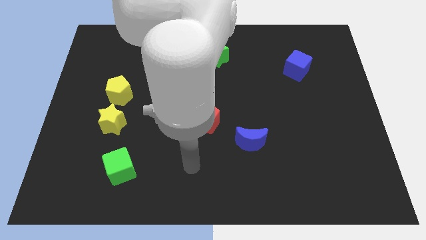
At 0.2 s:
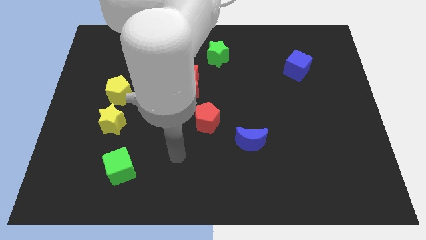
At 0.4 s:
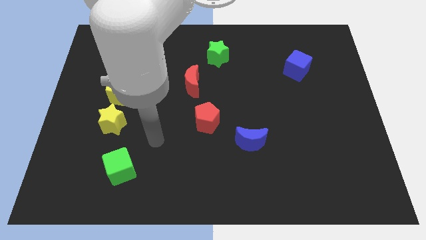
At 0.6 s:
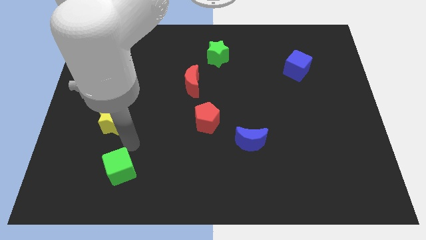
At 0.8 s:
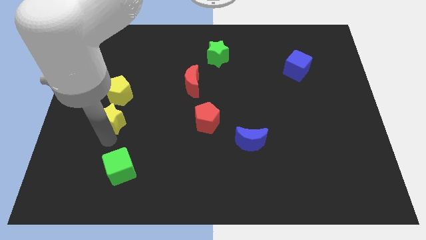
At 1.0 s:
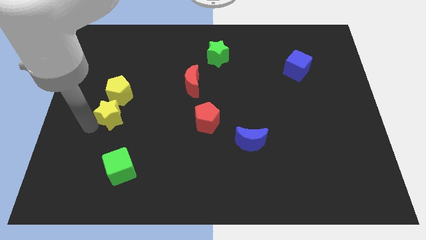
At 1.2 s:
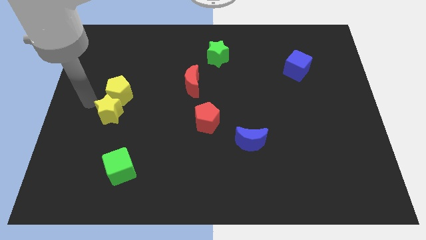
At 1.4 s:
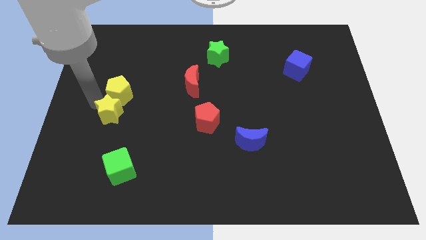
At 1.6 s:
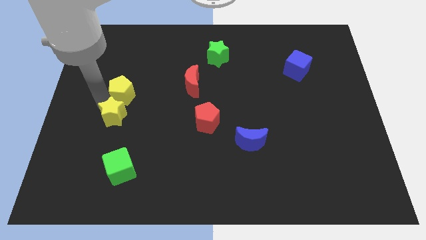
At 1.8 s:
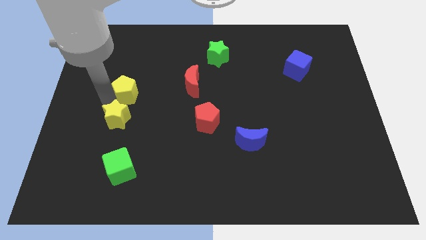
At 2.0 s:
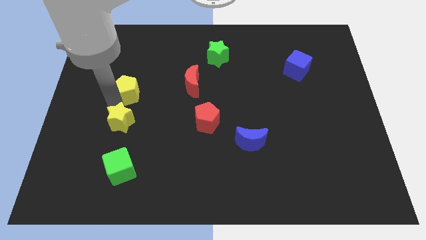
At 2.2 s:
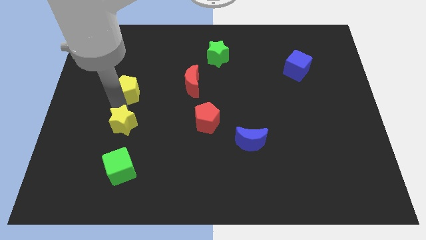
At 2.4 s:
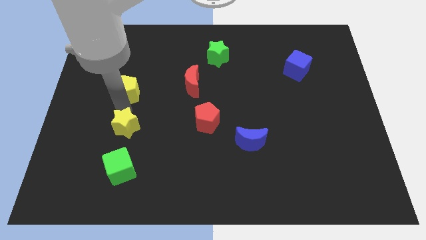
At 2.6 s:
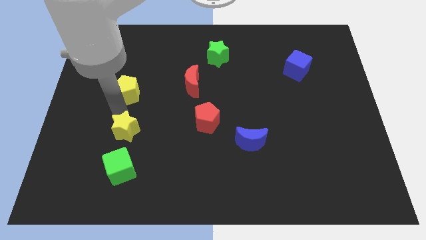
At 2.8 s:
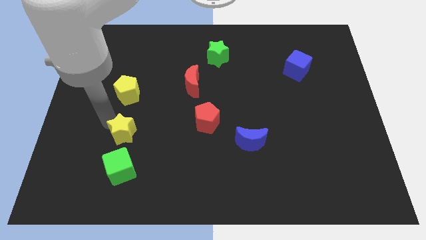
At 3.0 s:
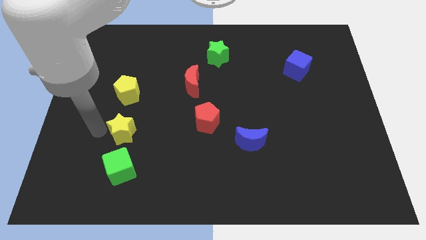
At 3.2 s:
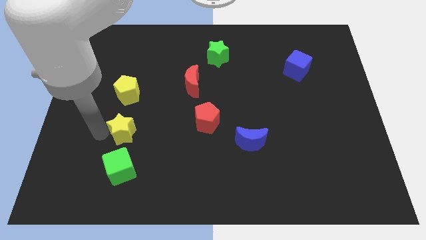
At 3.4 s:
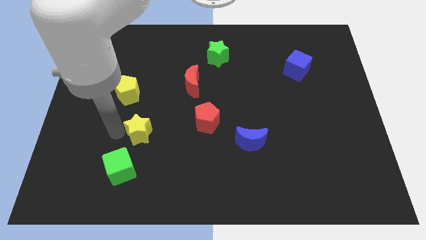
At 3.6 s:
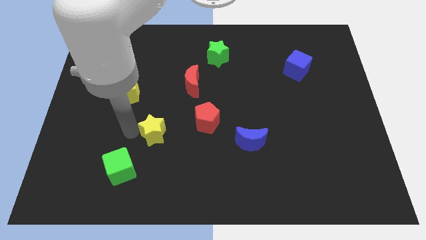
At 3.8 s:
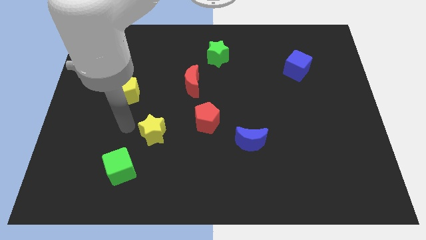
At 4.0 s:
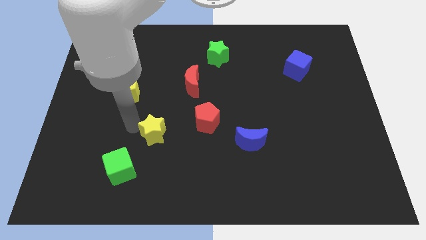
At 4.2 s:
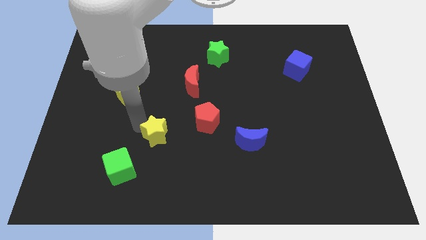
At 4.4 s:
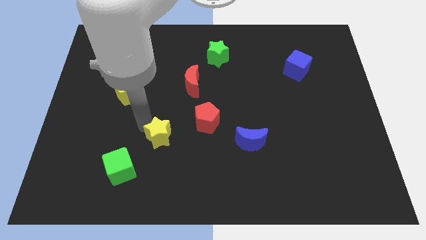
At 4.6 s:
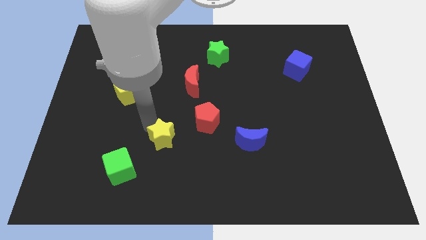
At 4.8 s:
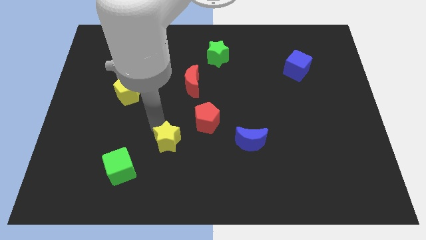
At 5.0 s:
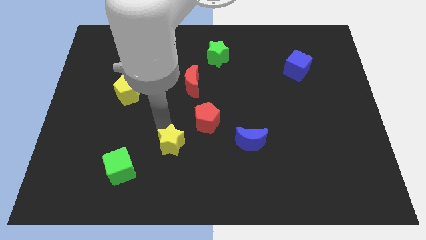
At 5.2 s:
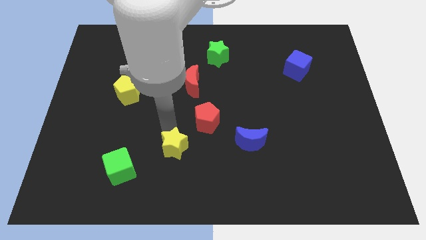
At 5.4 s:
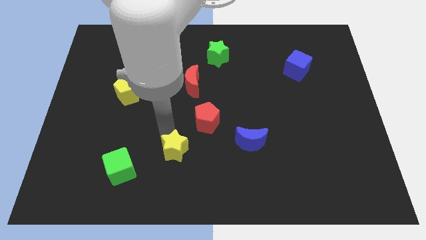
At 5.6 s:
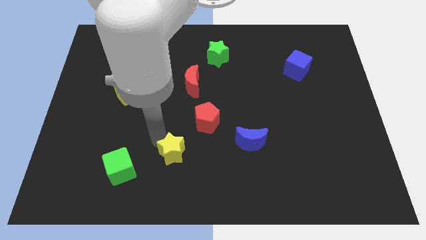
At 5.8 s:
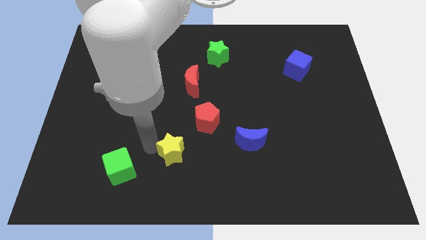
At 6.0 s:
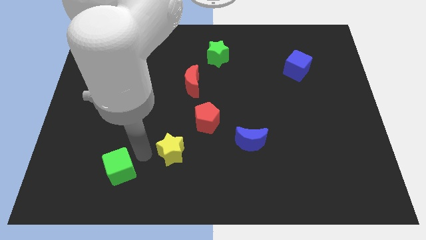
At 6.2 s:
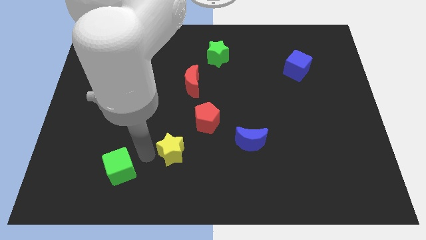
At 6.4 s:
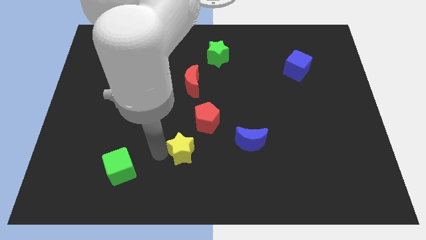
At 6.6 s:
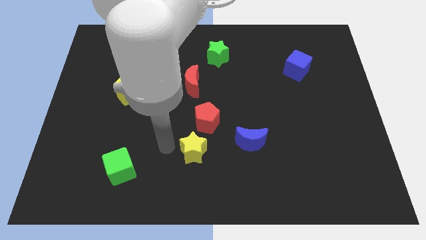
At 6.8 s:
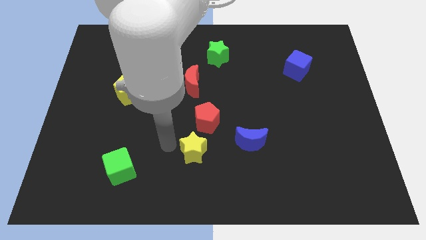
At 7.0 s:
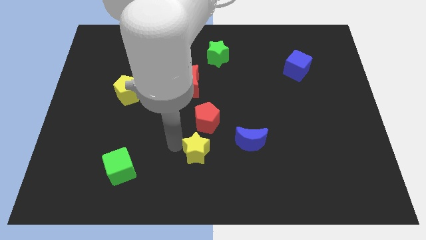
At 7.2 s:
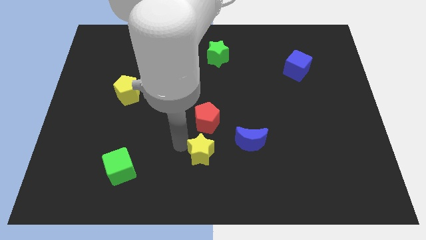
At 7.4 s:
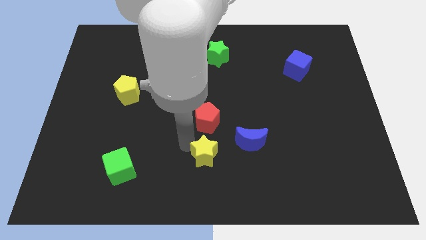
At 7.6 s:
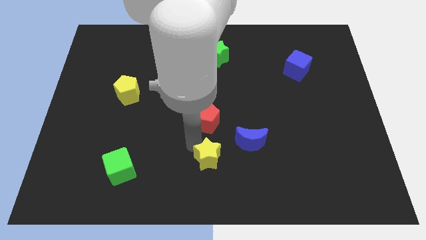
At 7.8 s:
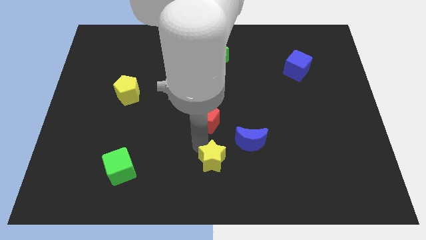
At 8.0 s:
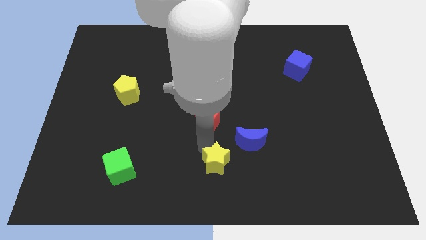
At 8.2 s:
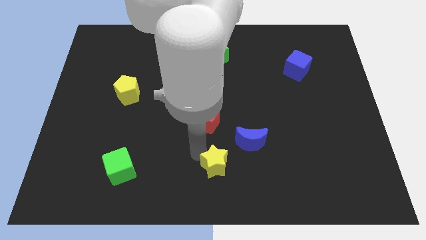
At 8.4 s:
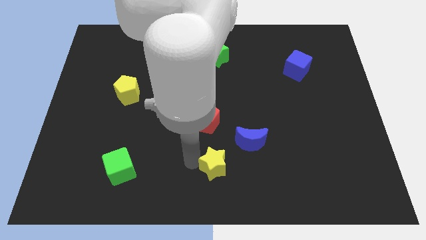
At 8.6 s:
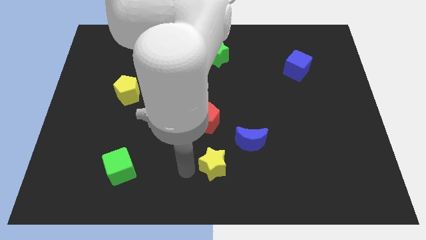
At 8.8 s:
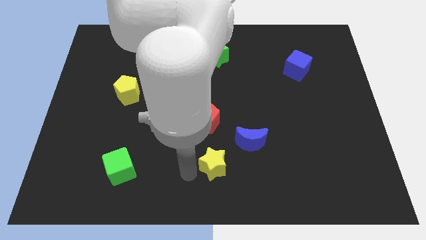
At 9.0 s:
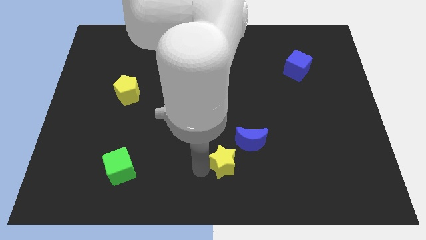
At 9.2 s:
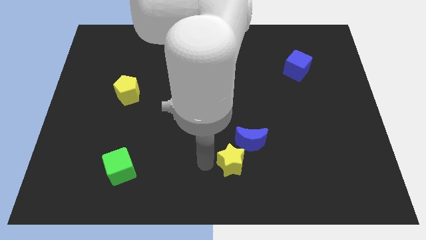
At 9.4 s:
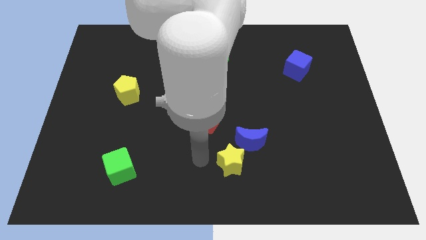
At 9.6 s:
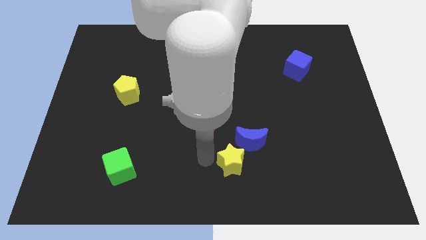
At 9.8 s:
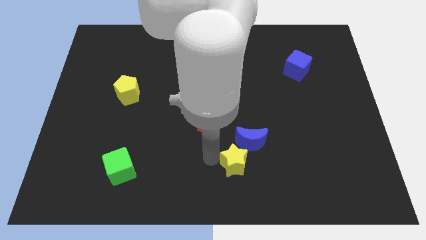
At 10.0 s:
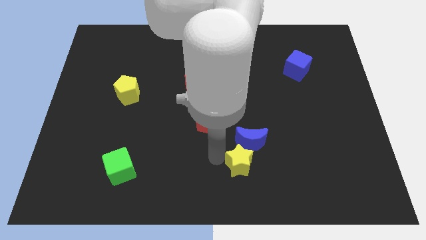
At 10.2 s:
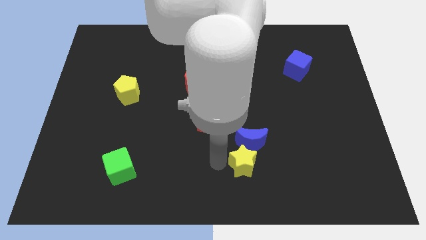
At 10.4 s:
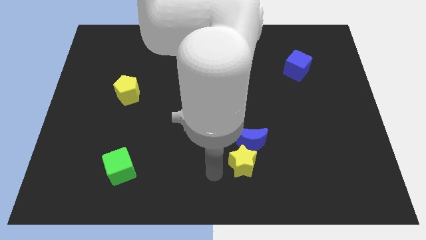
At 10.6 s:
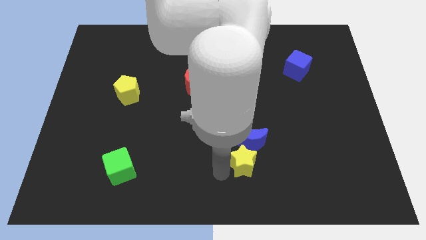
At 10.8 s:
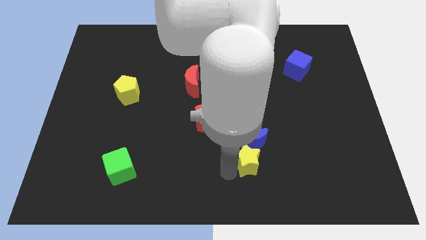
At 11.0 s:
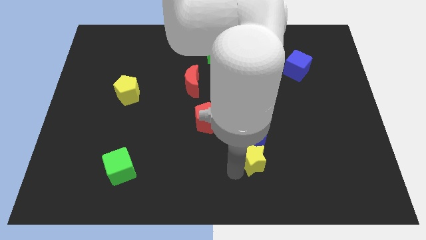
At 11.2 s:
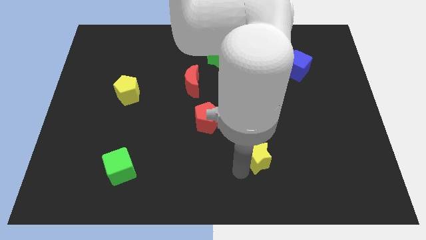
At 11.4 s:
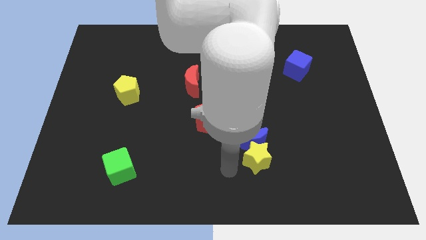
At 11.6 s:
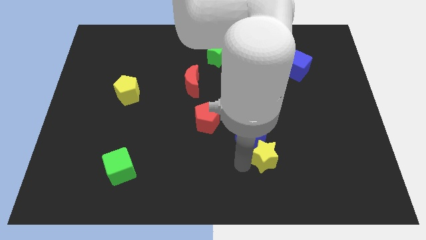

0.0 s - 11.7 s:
move the yellow star to the right side of the blue moon

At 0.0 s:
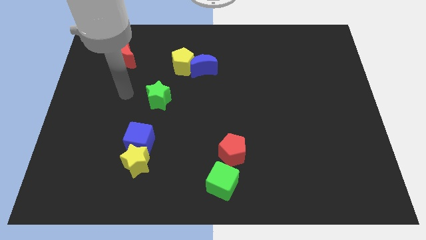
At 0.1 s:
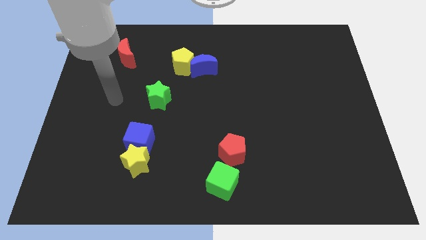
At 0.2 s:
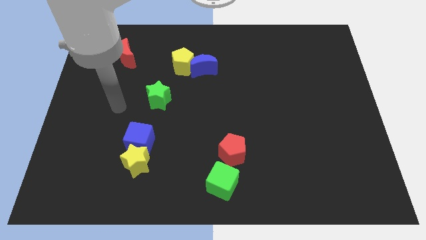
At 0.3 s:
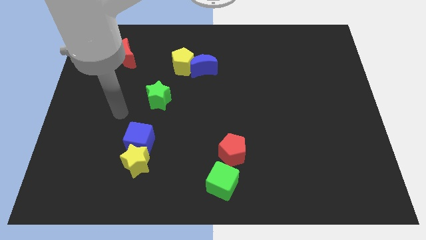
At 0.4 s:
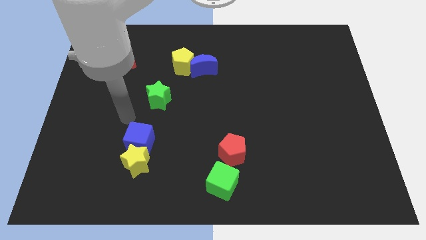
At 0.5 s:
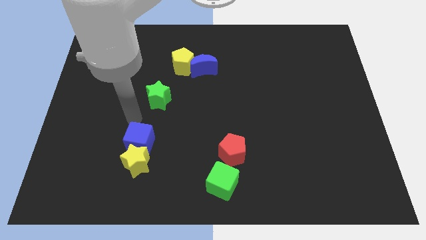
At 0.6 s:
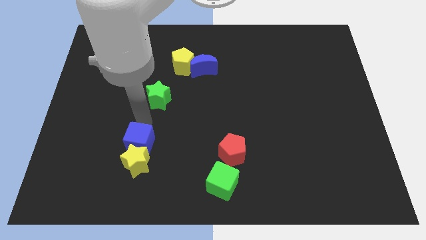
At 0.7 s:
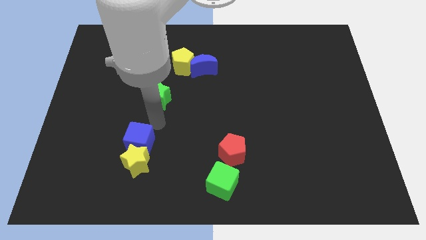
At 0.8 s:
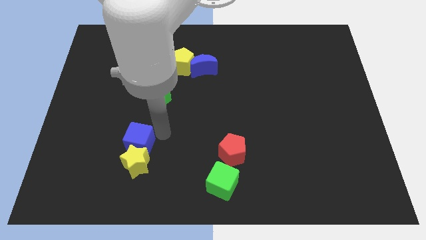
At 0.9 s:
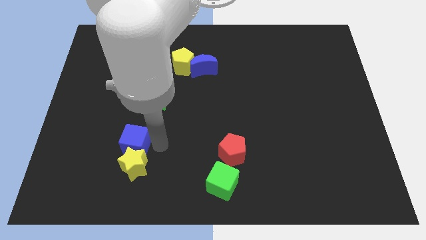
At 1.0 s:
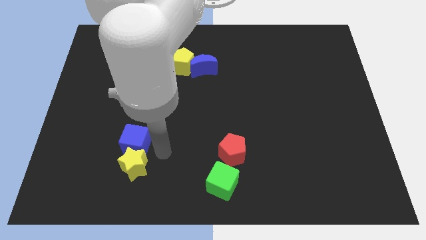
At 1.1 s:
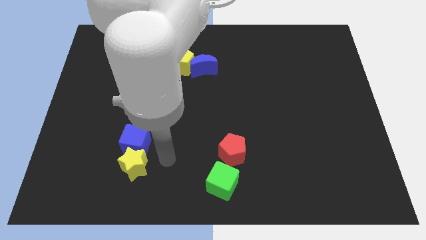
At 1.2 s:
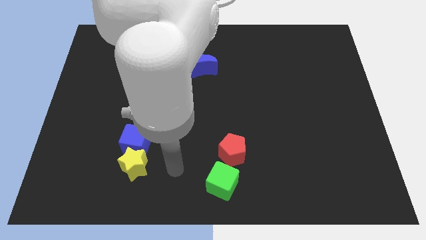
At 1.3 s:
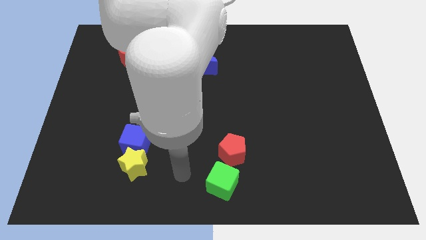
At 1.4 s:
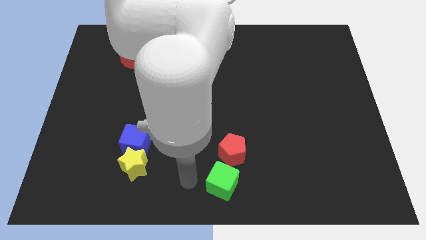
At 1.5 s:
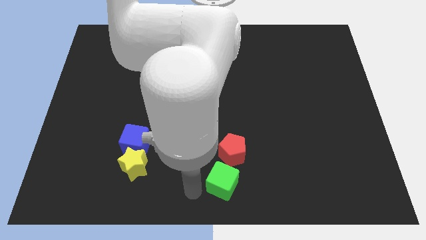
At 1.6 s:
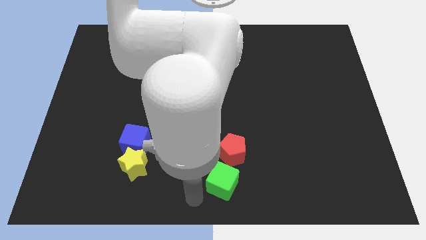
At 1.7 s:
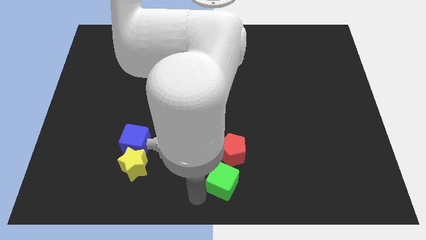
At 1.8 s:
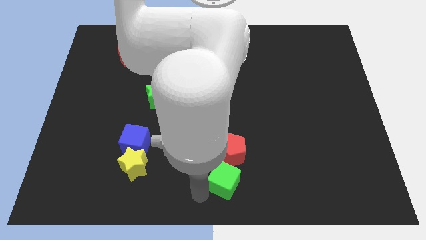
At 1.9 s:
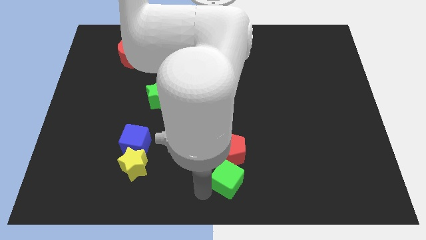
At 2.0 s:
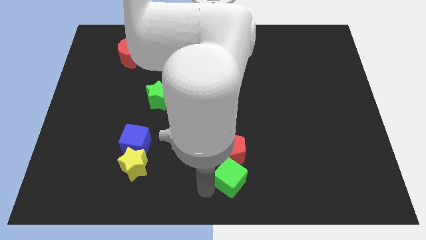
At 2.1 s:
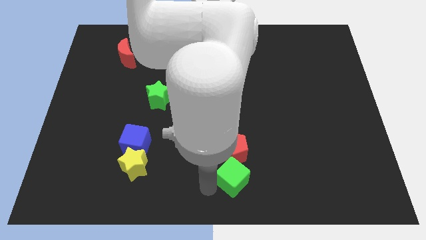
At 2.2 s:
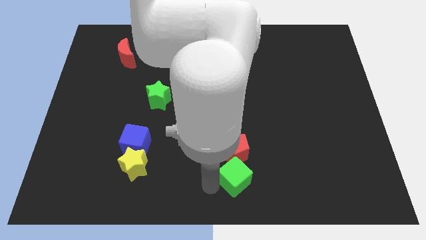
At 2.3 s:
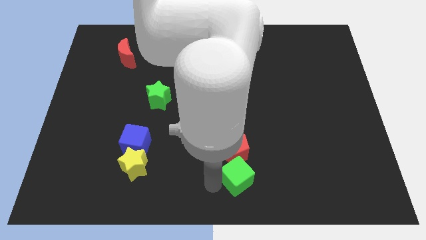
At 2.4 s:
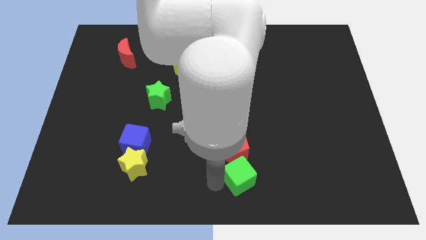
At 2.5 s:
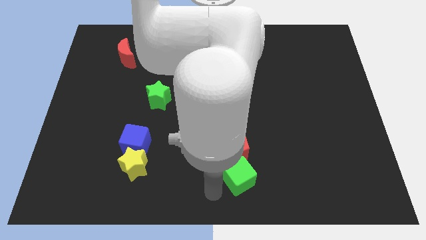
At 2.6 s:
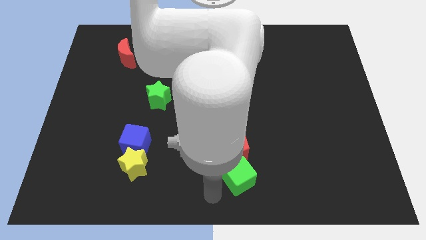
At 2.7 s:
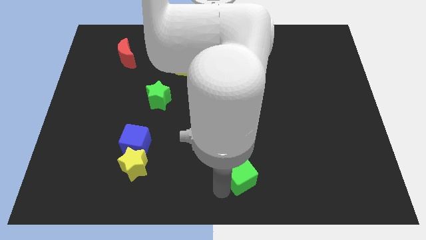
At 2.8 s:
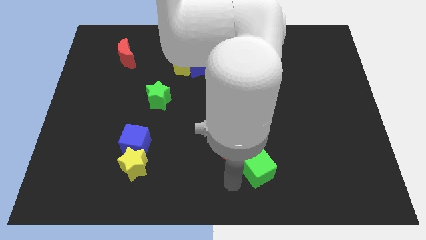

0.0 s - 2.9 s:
put the green cube right of the red pentagon
